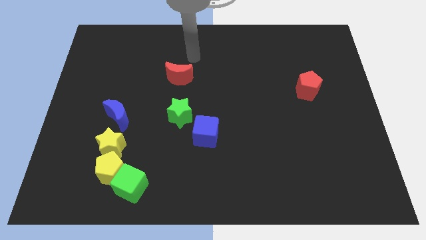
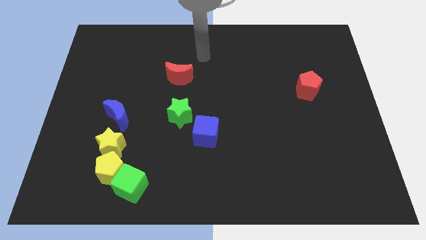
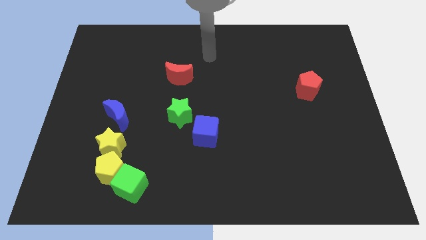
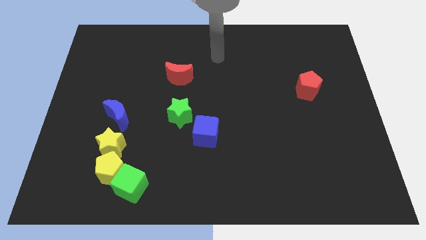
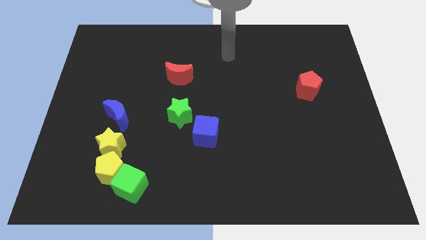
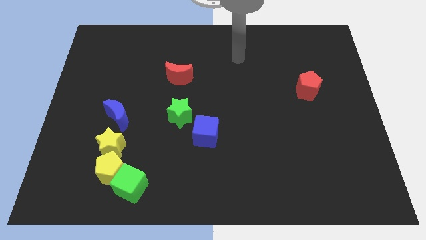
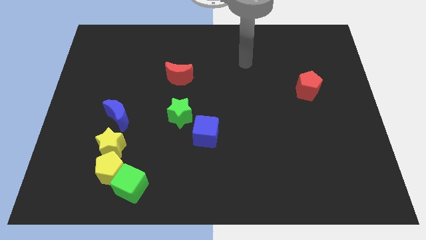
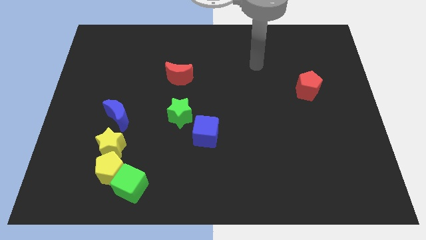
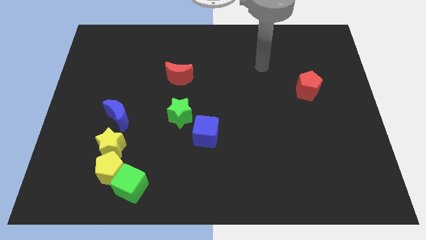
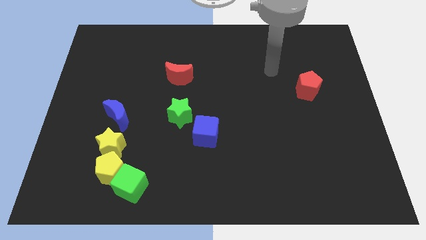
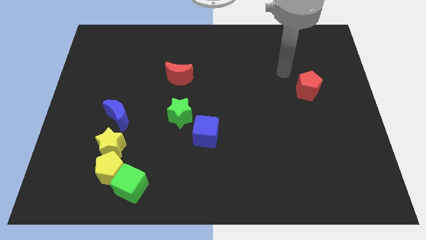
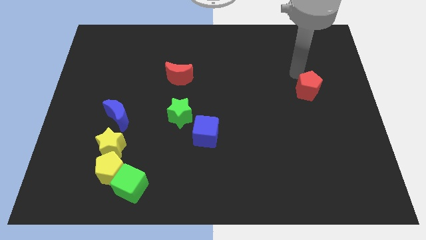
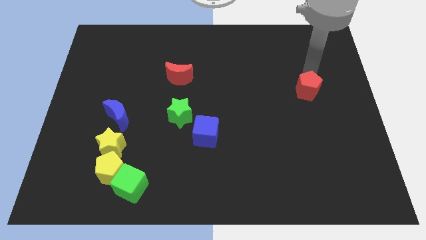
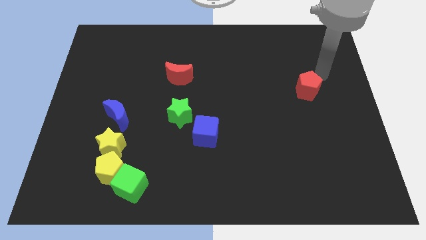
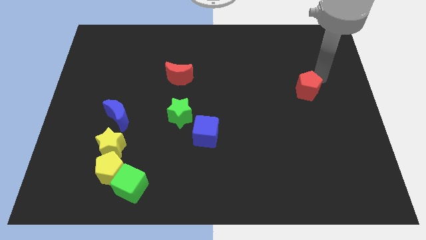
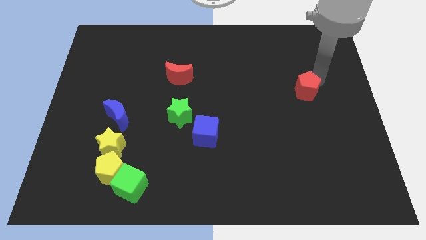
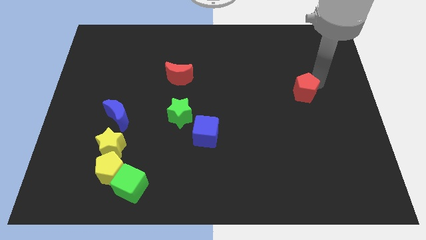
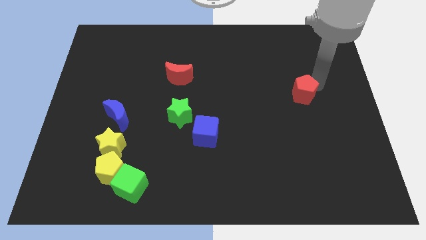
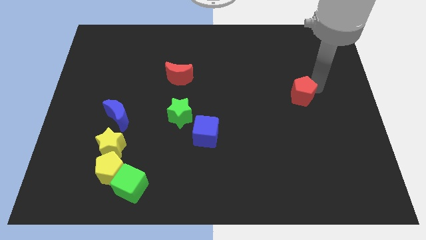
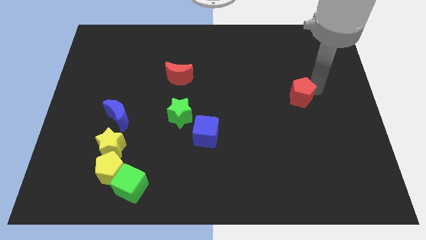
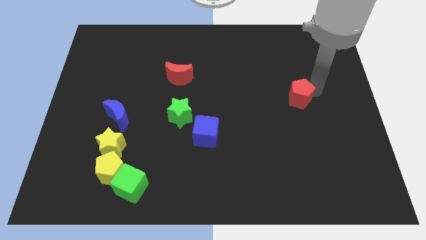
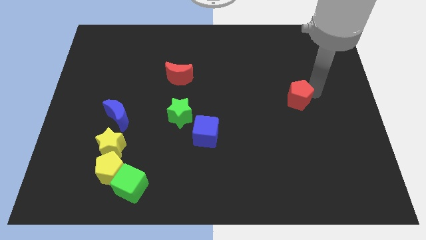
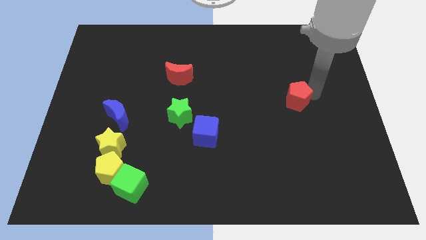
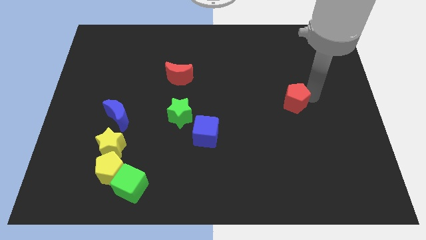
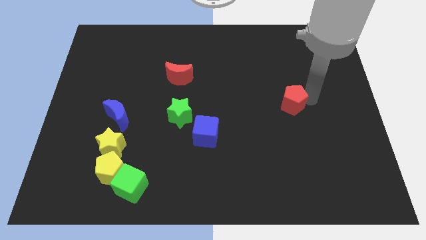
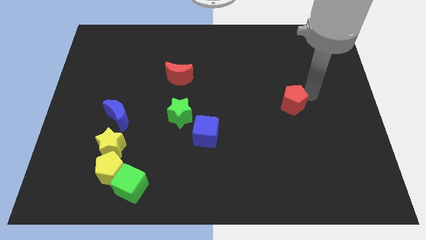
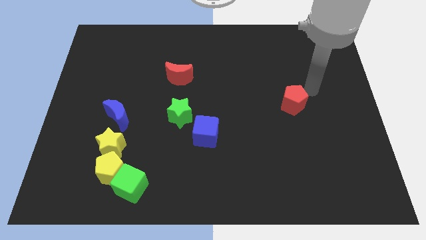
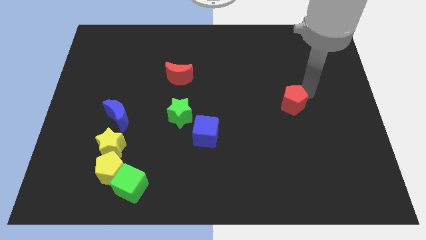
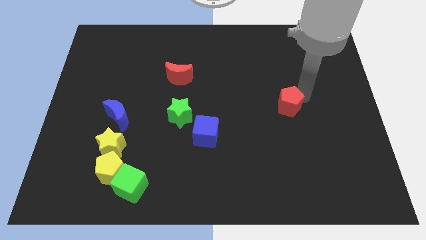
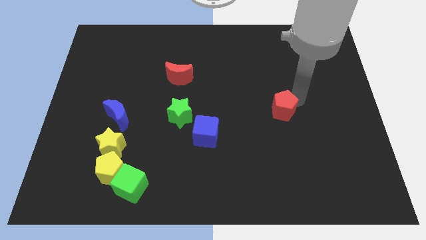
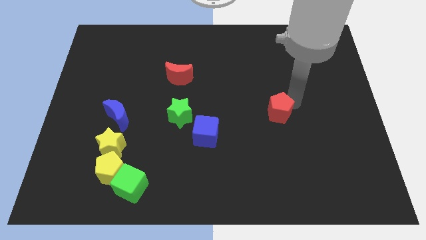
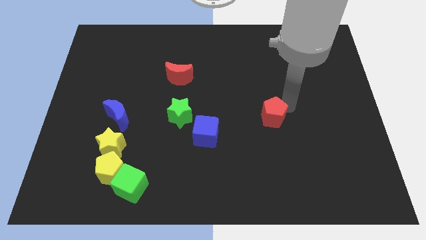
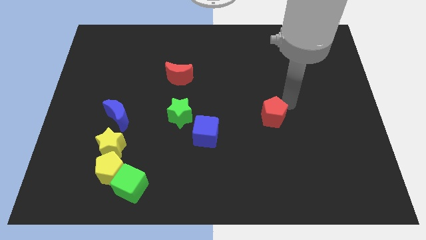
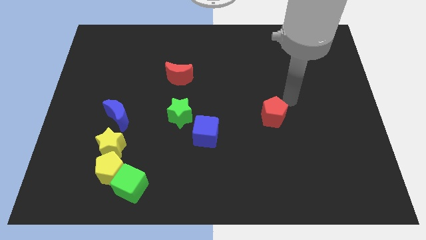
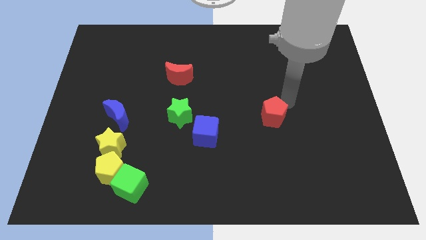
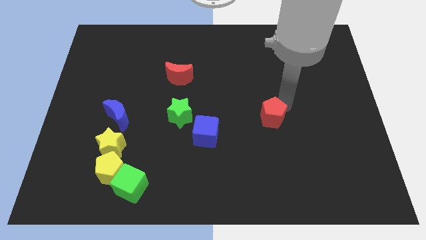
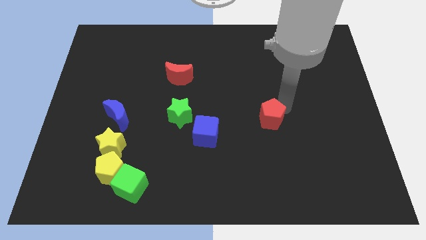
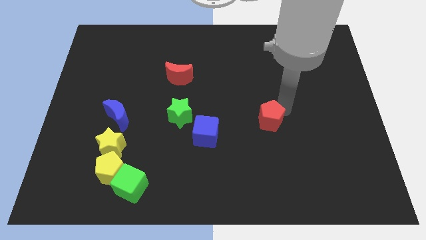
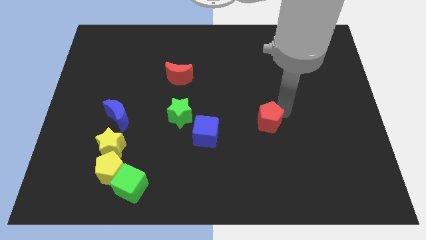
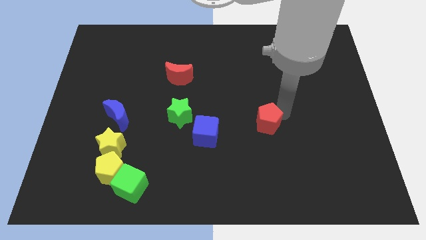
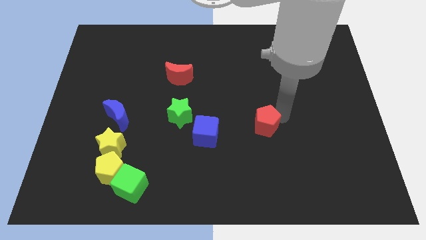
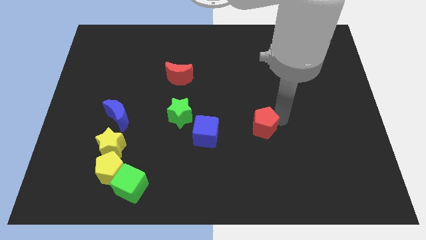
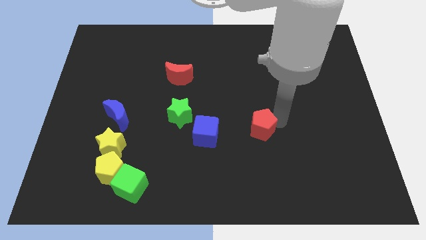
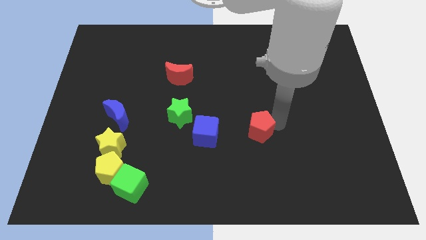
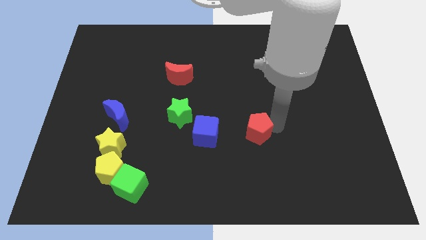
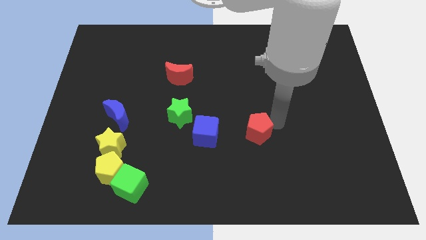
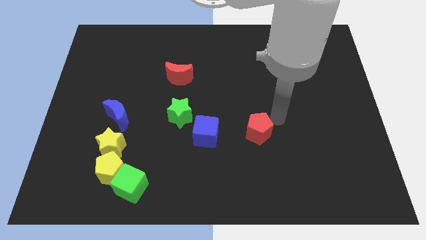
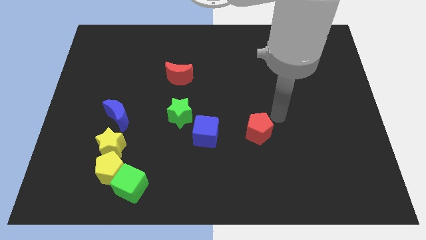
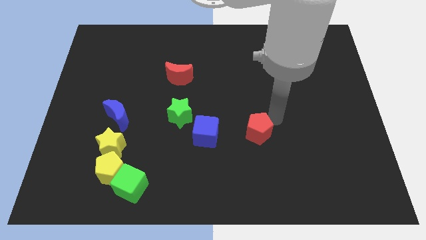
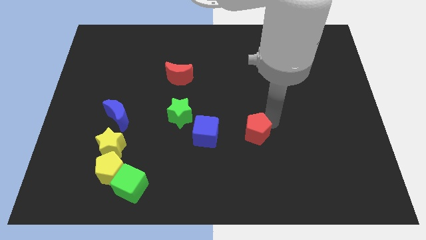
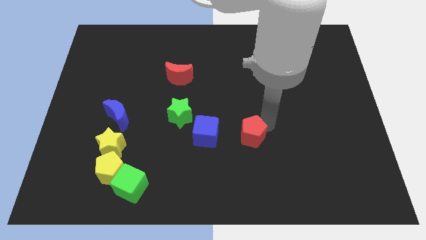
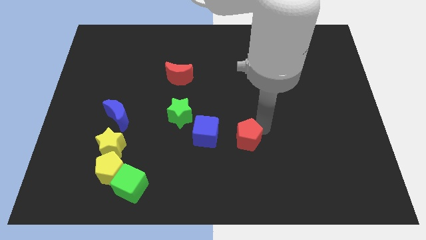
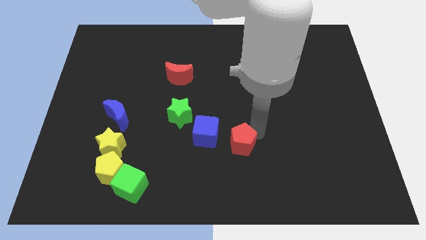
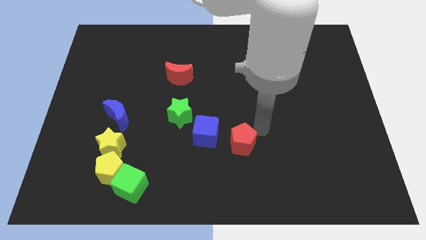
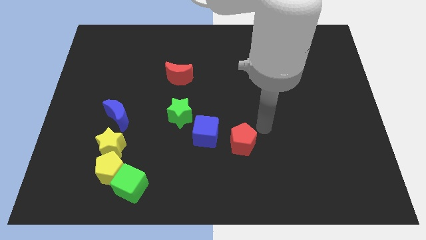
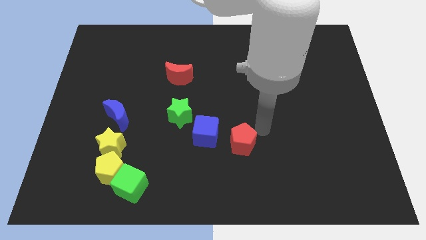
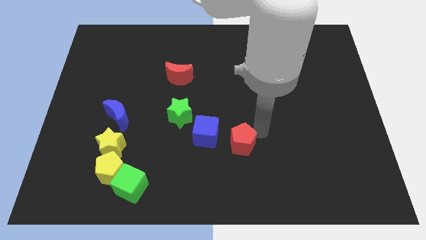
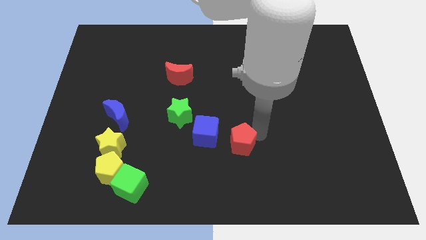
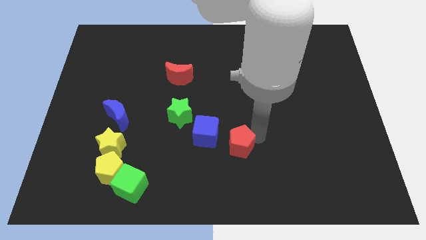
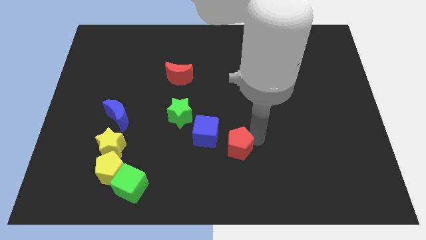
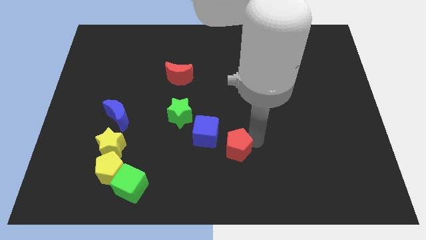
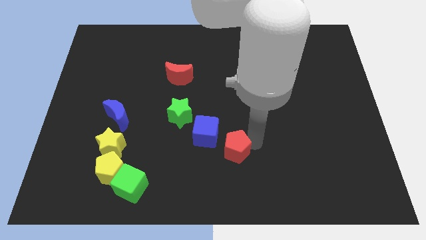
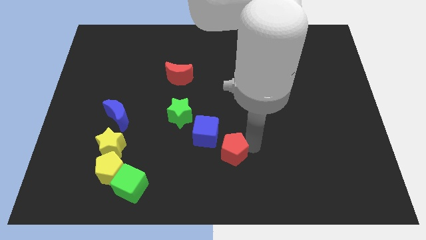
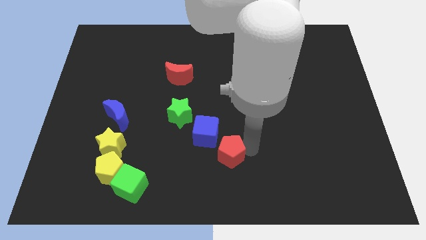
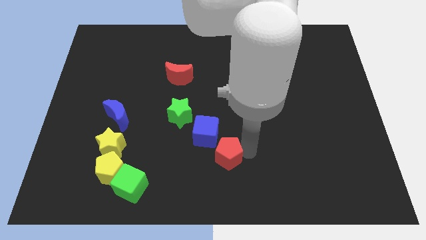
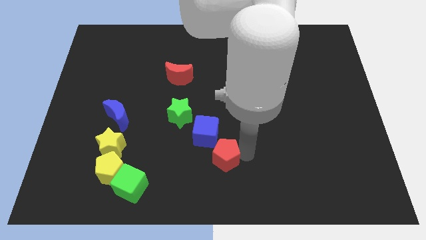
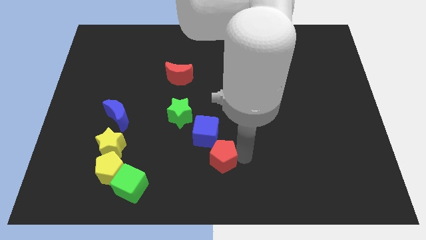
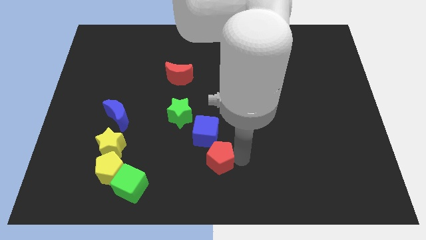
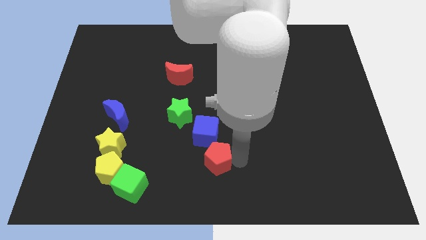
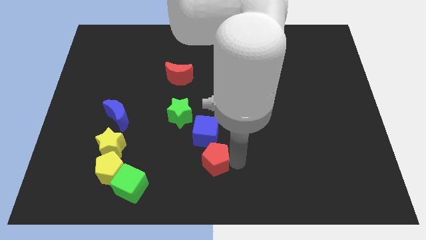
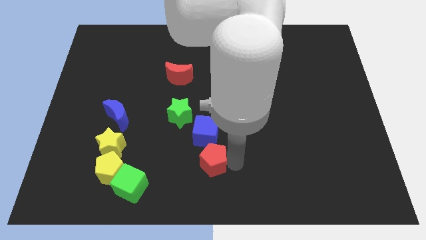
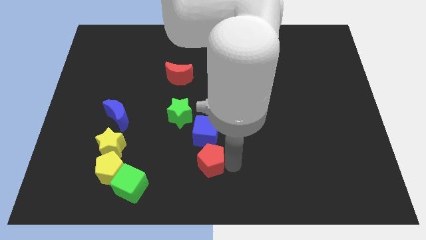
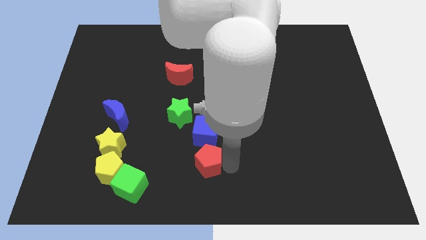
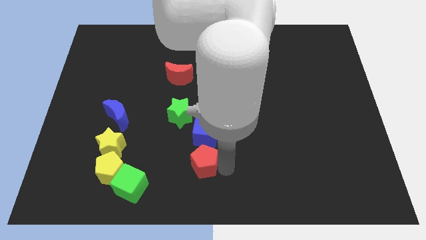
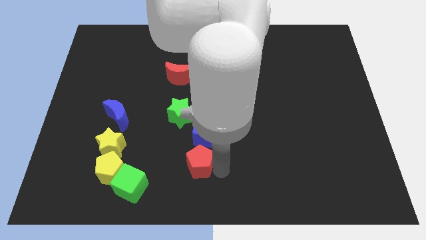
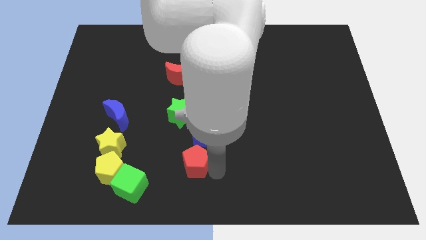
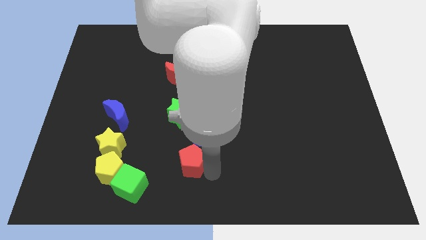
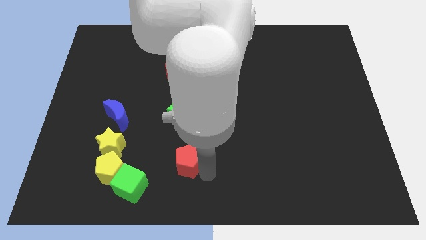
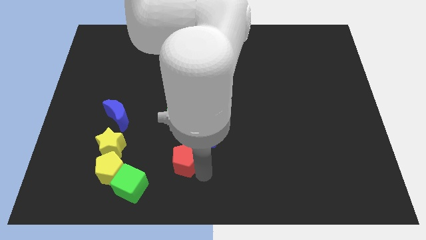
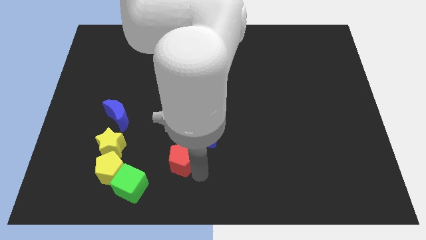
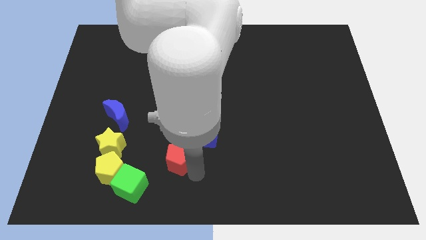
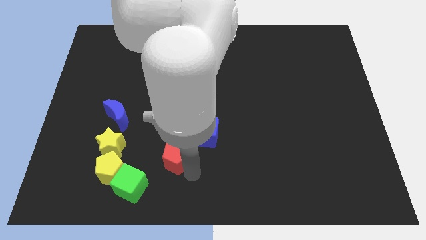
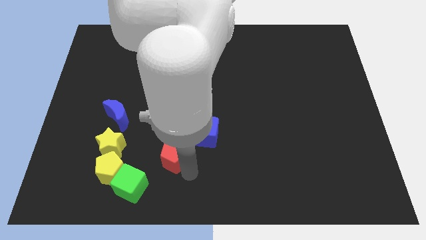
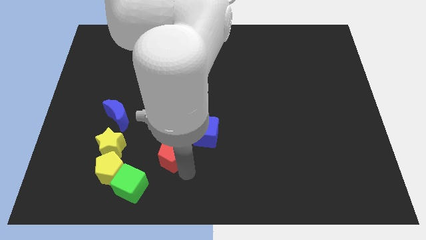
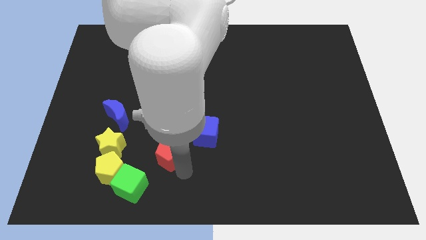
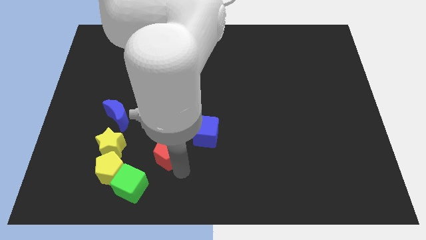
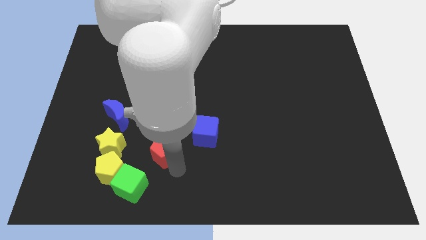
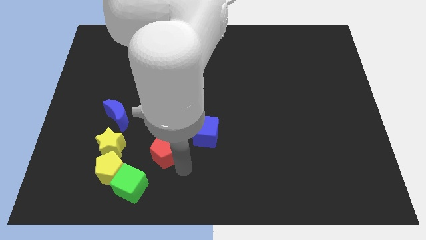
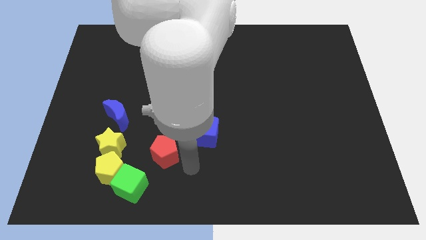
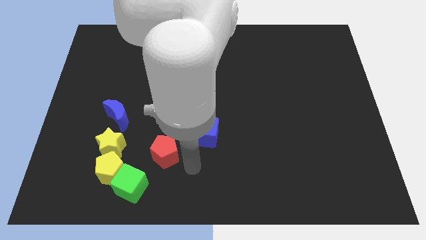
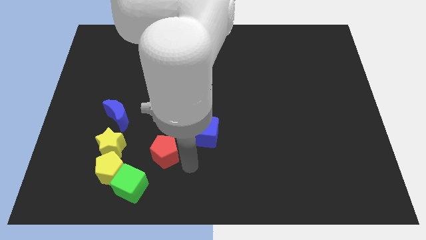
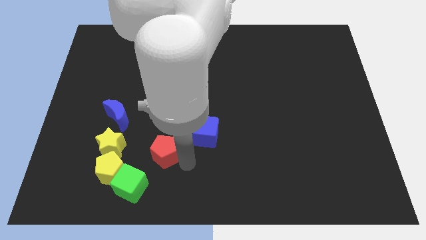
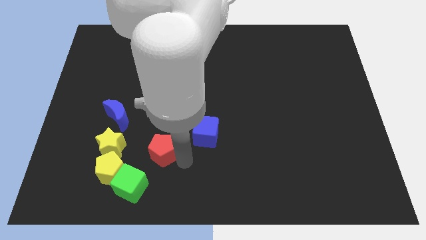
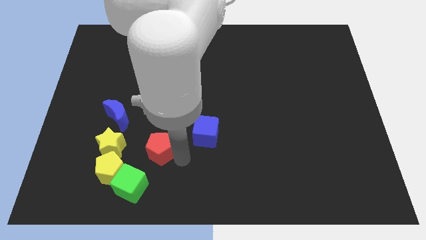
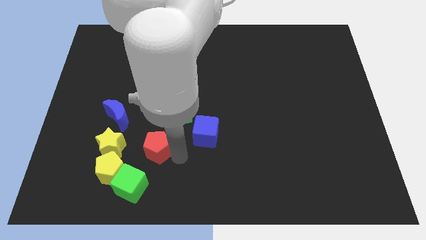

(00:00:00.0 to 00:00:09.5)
slide the red pentagon above the green cube
